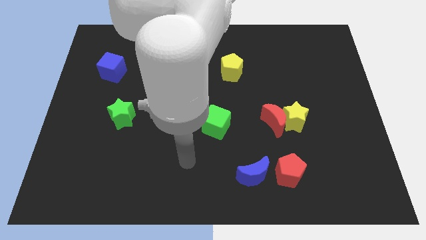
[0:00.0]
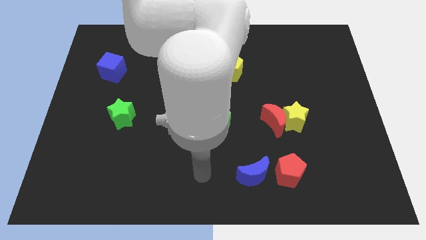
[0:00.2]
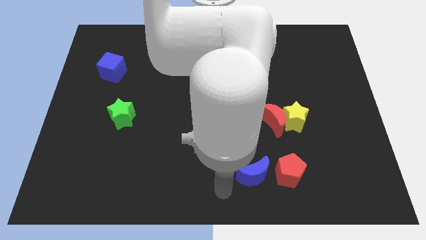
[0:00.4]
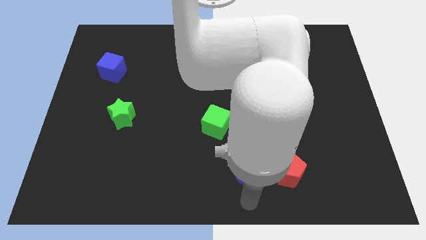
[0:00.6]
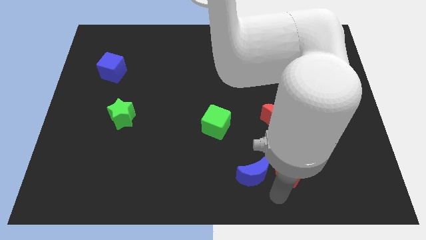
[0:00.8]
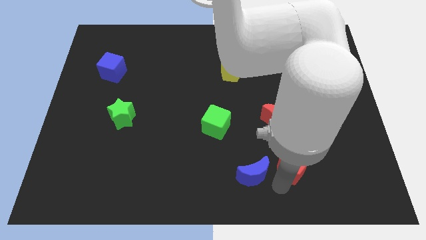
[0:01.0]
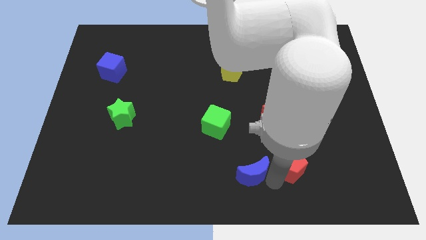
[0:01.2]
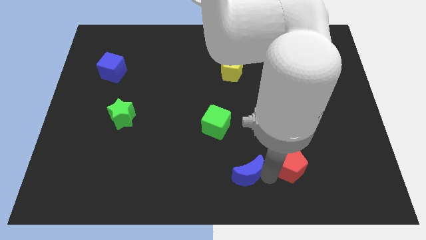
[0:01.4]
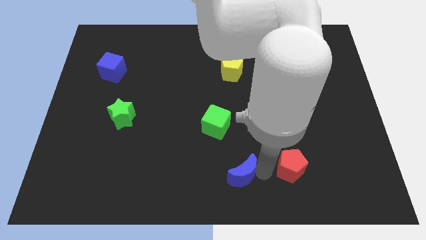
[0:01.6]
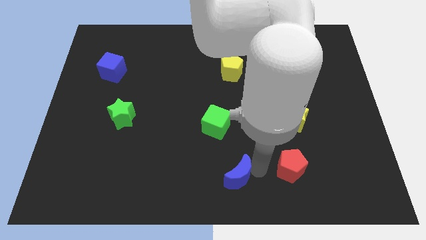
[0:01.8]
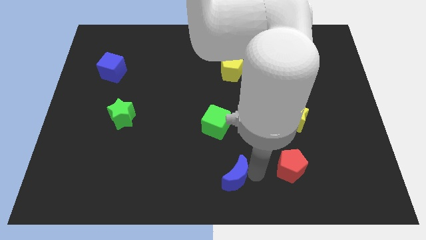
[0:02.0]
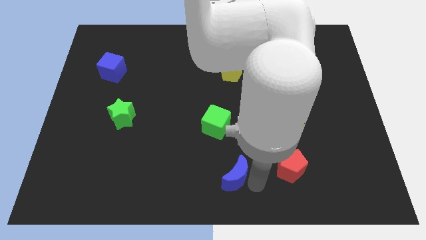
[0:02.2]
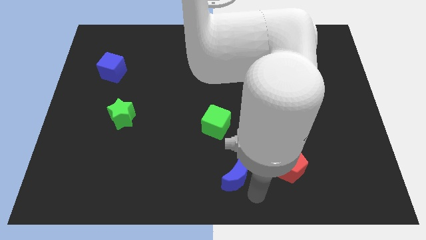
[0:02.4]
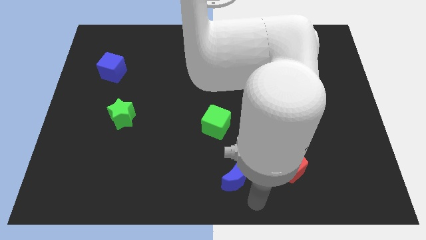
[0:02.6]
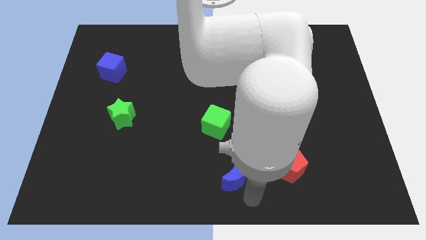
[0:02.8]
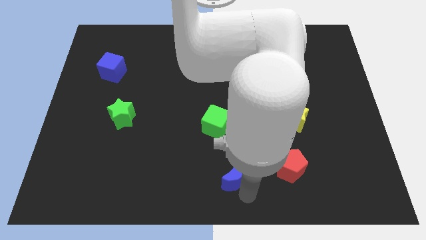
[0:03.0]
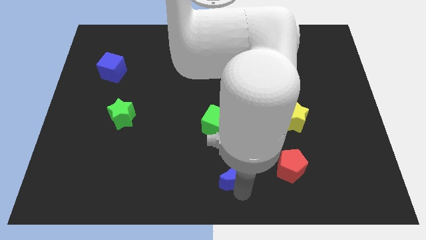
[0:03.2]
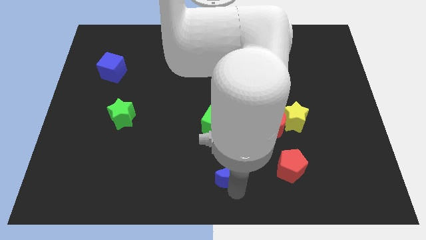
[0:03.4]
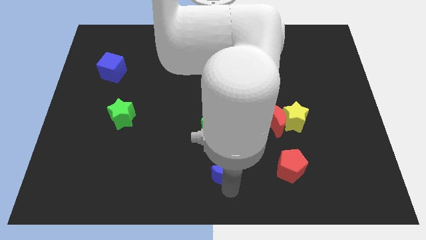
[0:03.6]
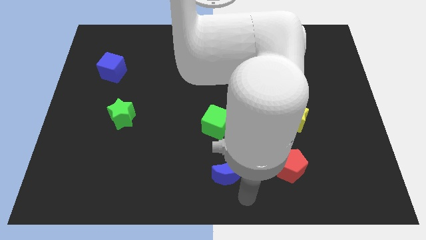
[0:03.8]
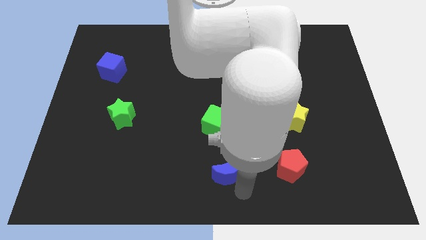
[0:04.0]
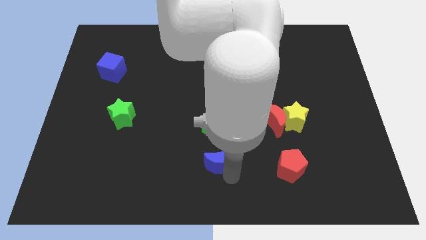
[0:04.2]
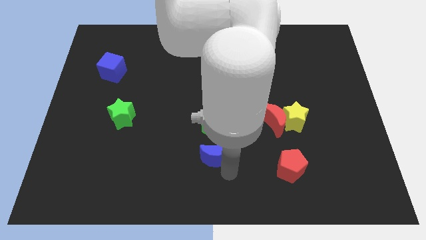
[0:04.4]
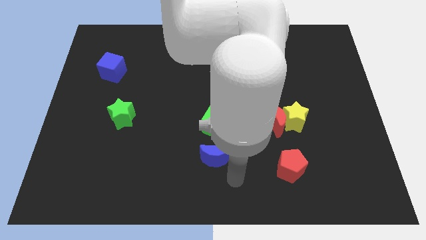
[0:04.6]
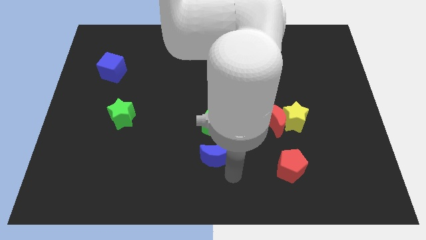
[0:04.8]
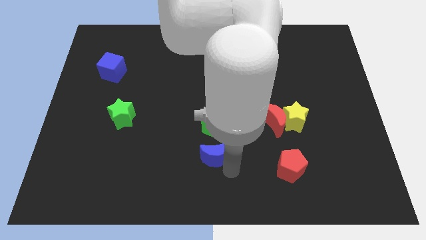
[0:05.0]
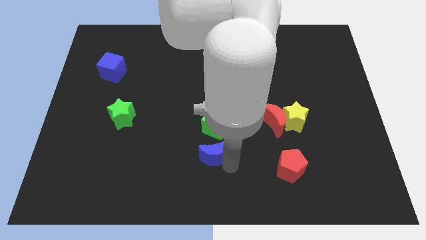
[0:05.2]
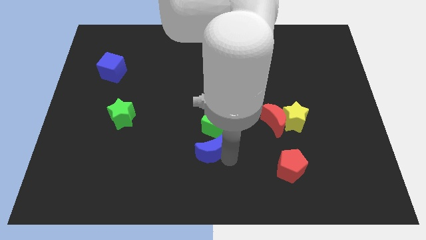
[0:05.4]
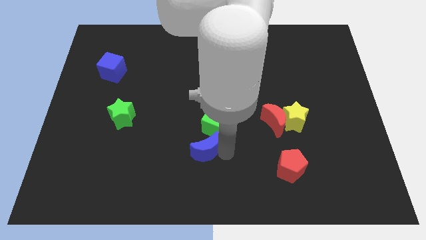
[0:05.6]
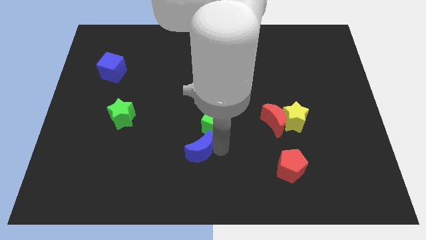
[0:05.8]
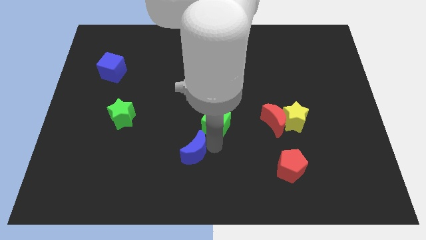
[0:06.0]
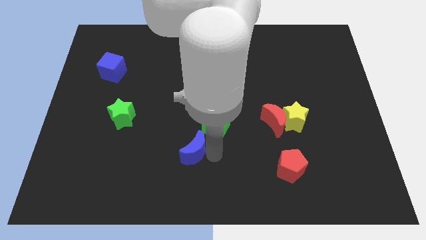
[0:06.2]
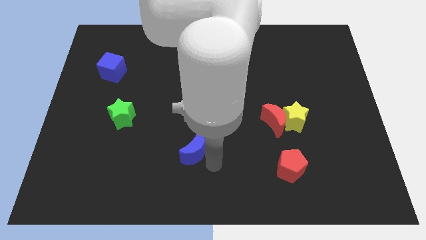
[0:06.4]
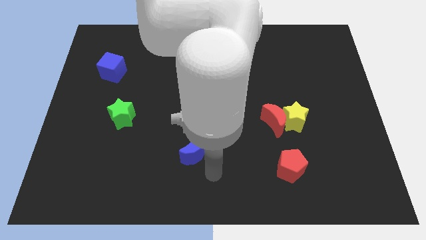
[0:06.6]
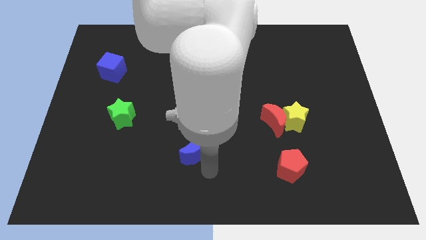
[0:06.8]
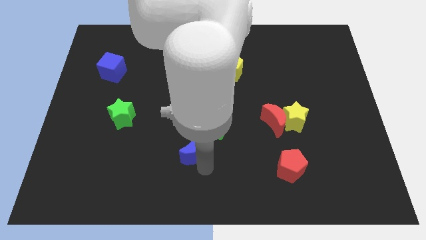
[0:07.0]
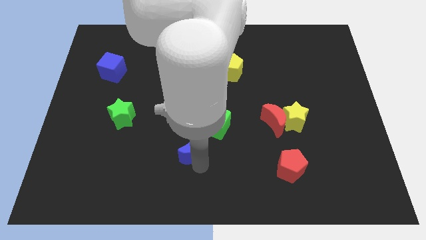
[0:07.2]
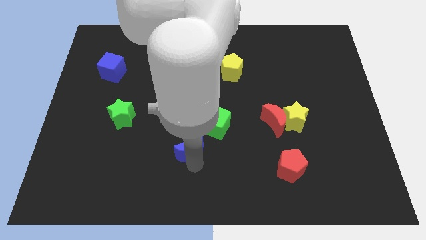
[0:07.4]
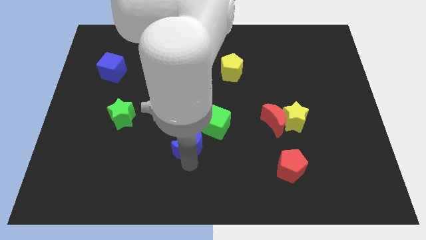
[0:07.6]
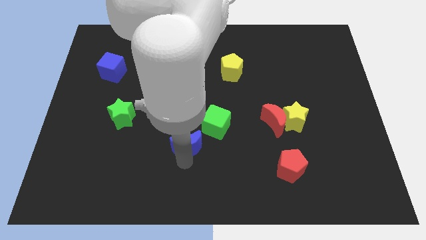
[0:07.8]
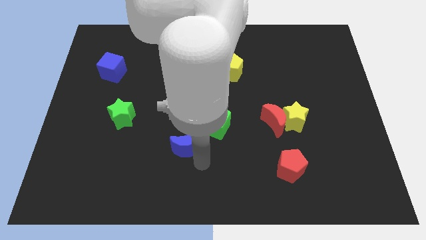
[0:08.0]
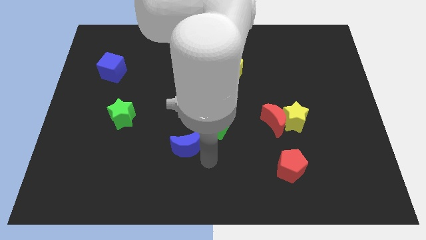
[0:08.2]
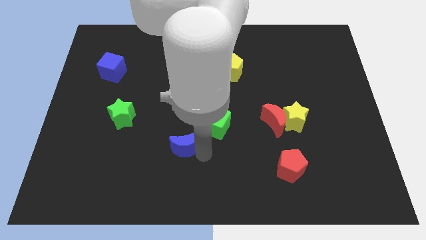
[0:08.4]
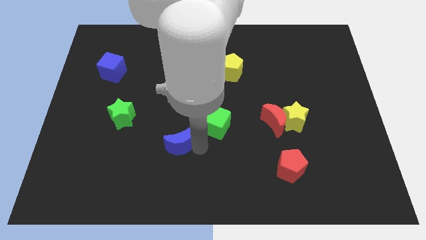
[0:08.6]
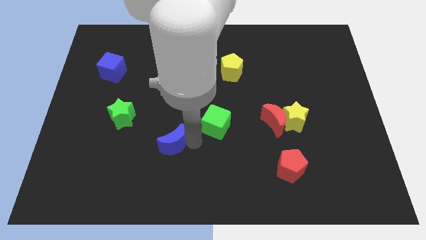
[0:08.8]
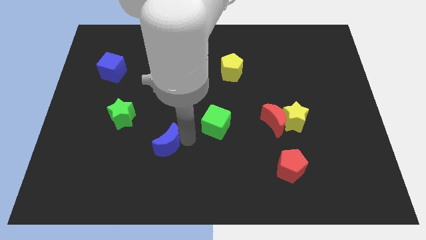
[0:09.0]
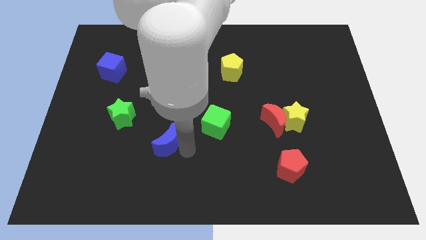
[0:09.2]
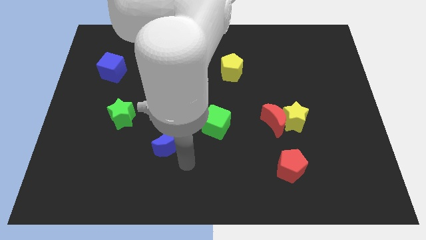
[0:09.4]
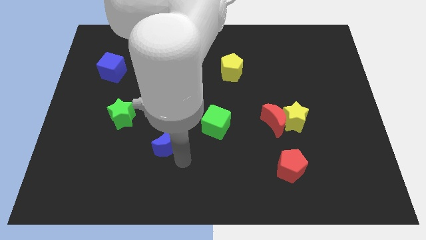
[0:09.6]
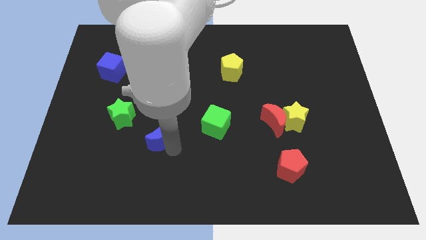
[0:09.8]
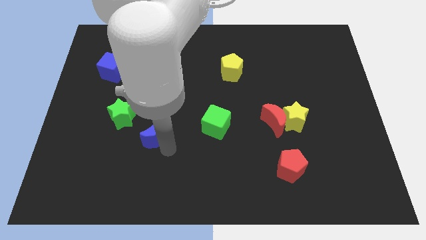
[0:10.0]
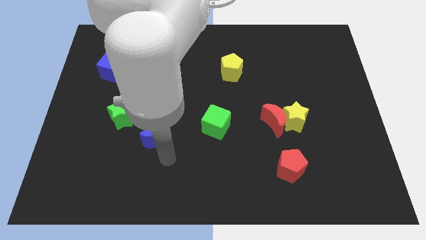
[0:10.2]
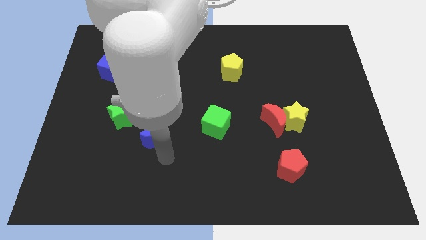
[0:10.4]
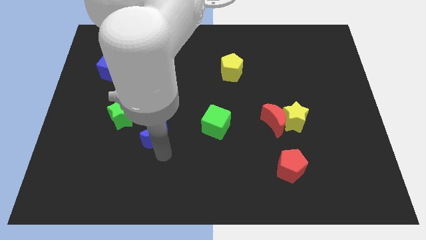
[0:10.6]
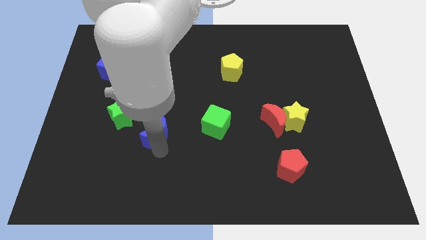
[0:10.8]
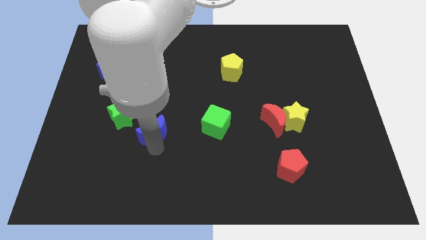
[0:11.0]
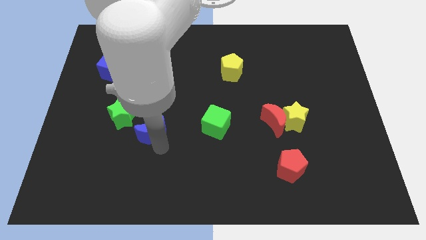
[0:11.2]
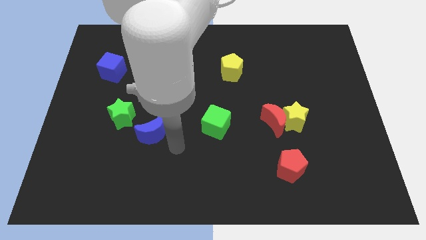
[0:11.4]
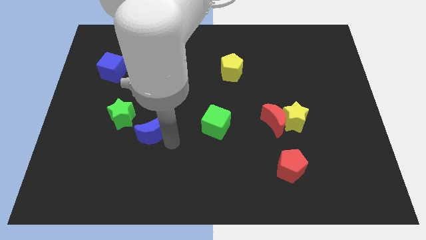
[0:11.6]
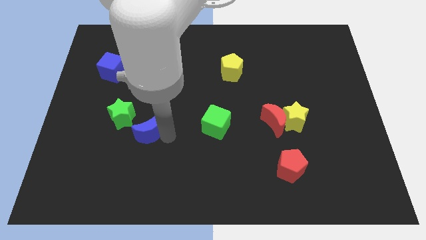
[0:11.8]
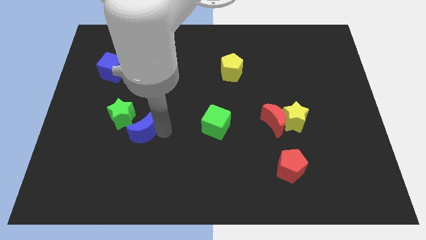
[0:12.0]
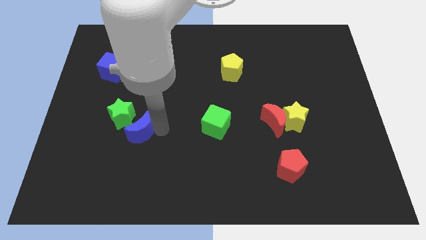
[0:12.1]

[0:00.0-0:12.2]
put the blue moon to the green star

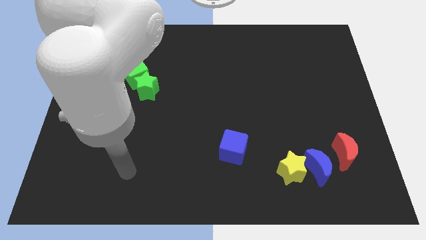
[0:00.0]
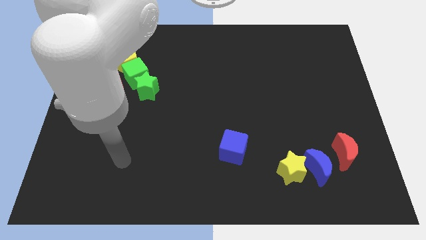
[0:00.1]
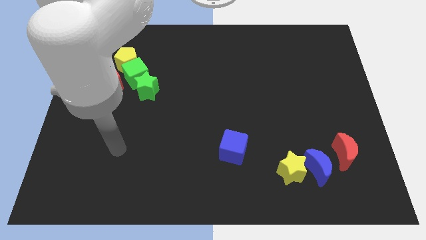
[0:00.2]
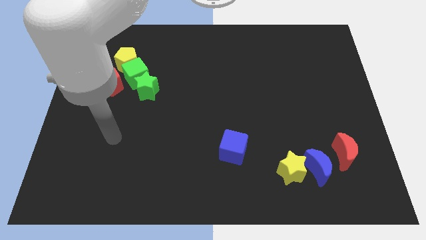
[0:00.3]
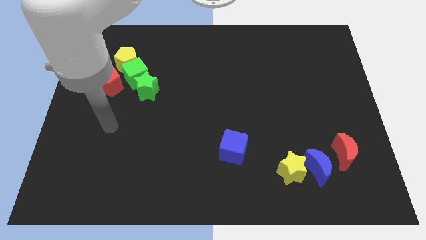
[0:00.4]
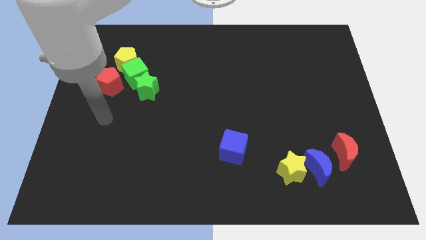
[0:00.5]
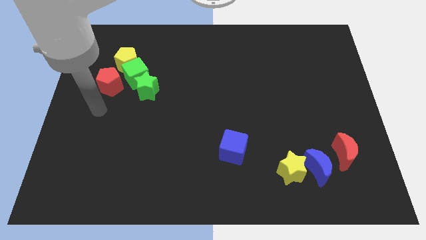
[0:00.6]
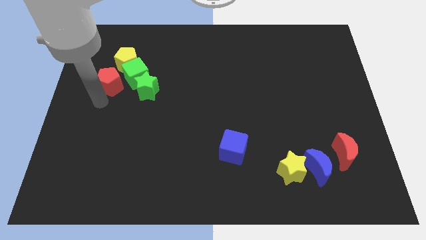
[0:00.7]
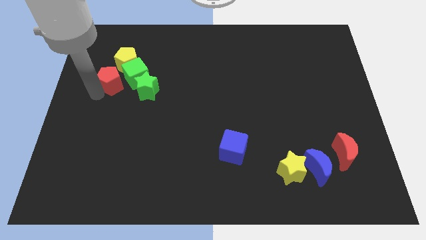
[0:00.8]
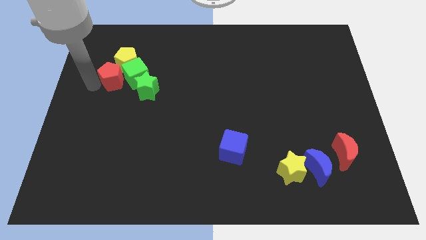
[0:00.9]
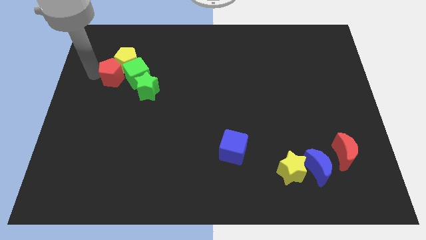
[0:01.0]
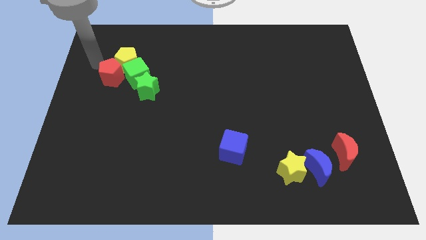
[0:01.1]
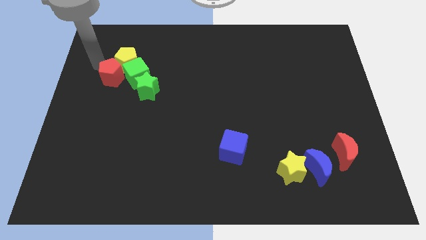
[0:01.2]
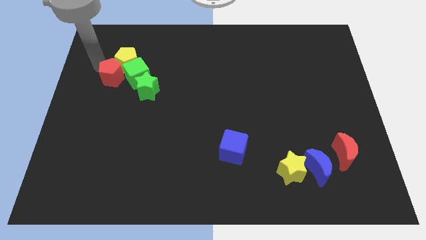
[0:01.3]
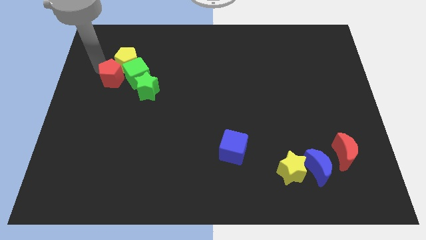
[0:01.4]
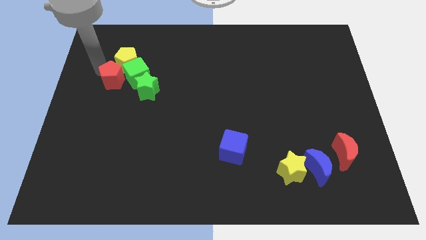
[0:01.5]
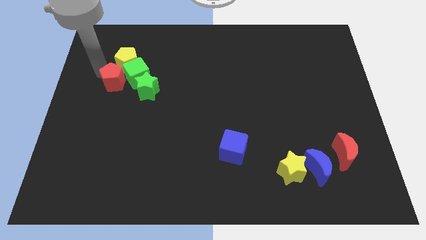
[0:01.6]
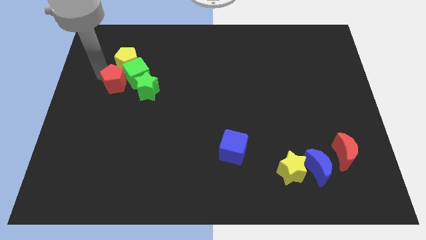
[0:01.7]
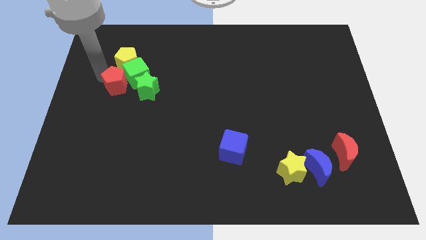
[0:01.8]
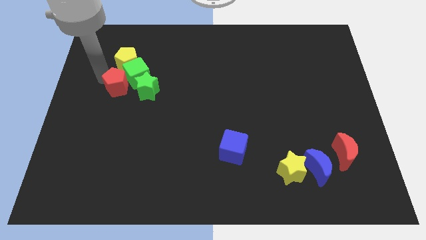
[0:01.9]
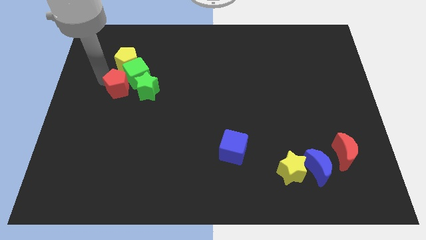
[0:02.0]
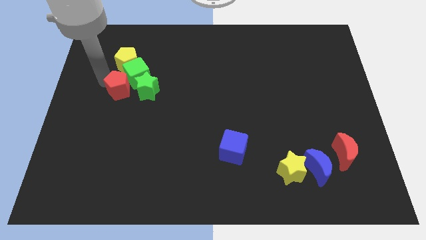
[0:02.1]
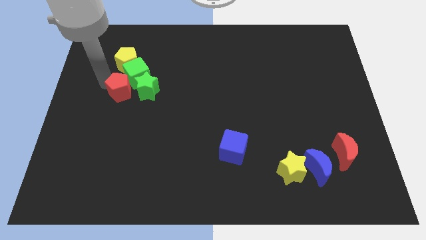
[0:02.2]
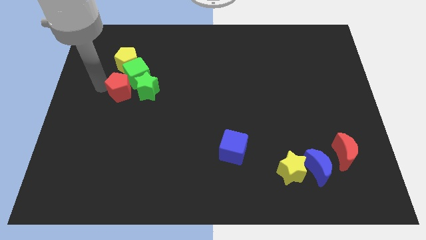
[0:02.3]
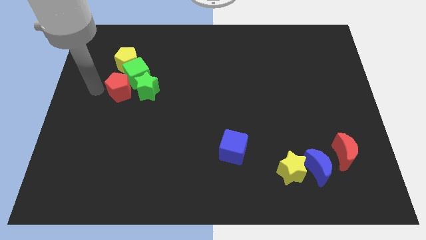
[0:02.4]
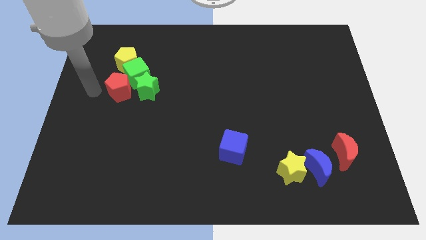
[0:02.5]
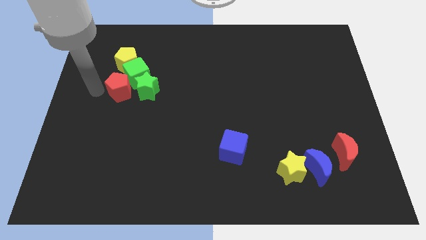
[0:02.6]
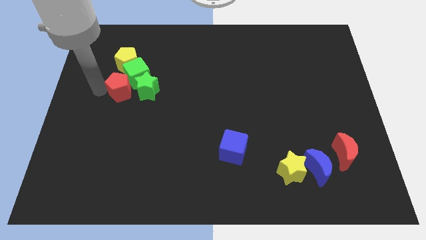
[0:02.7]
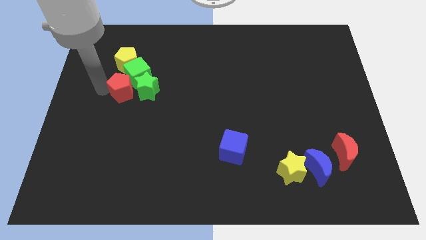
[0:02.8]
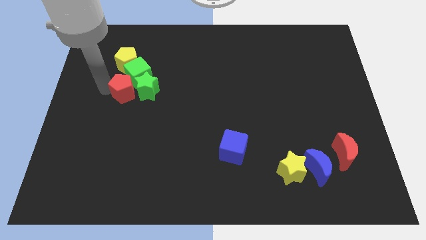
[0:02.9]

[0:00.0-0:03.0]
move the red pentagon next to the green star
